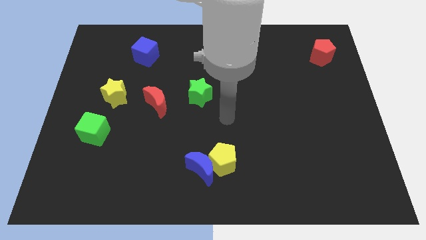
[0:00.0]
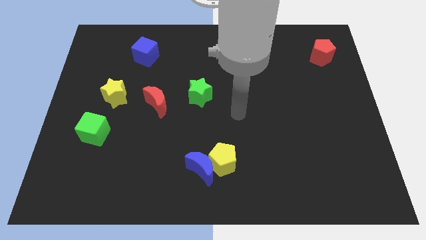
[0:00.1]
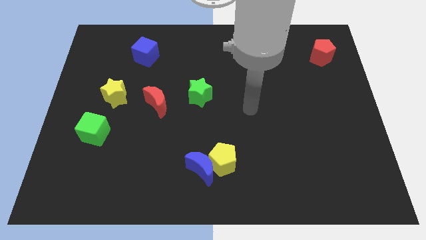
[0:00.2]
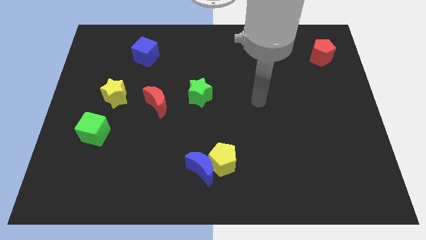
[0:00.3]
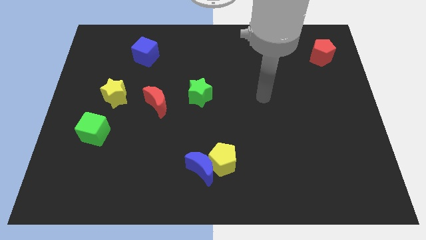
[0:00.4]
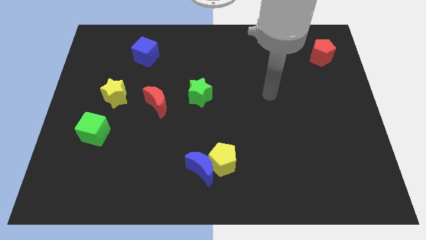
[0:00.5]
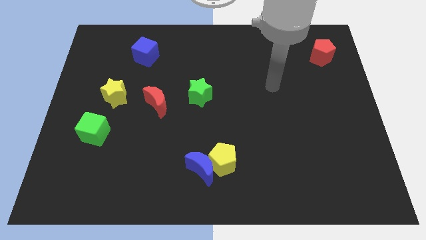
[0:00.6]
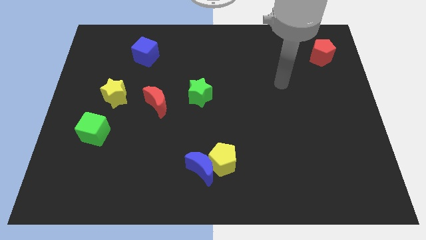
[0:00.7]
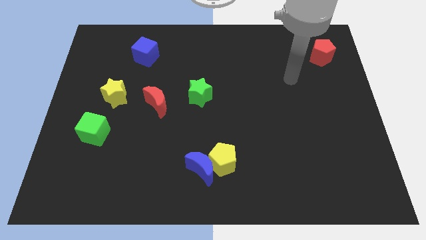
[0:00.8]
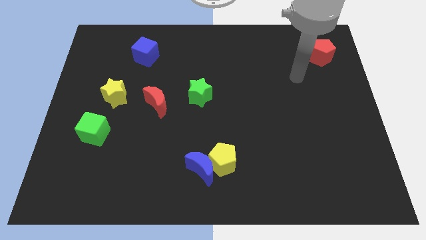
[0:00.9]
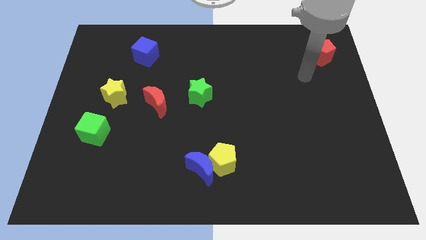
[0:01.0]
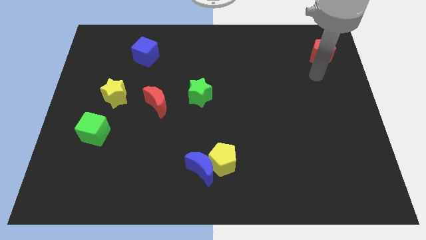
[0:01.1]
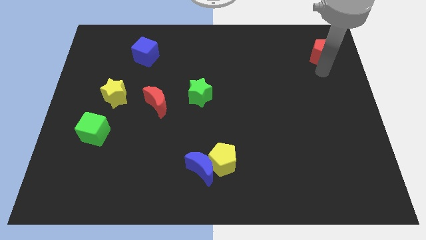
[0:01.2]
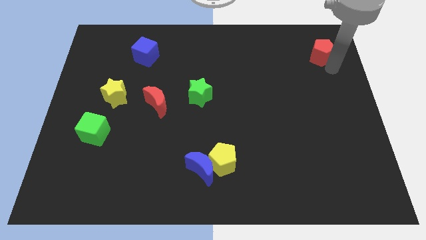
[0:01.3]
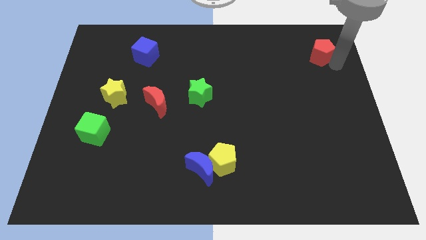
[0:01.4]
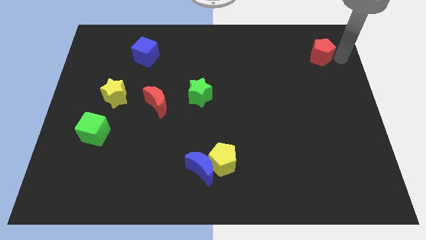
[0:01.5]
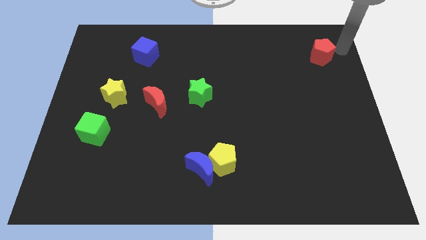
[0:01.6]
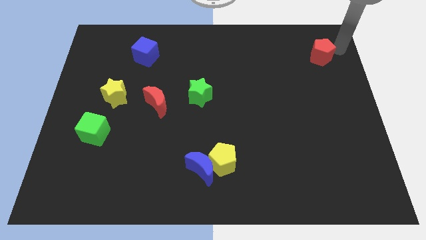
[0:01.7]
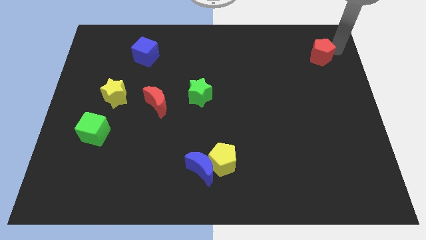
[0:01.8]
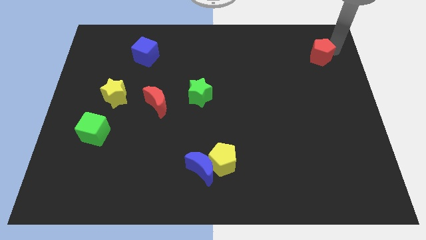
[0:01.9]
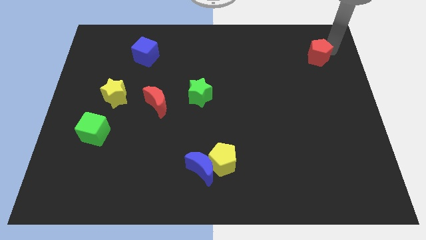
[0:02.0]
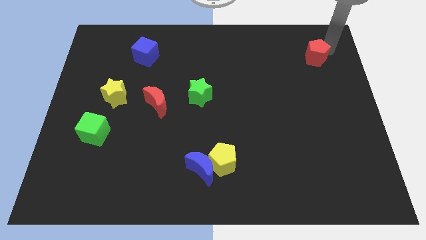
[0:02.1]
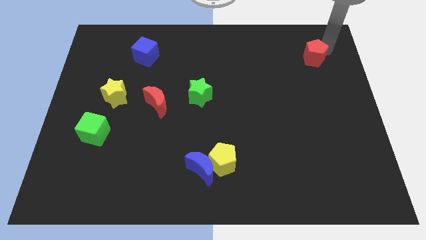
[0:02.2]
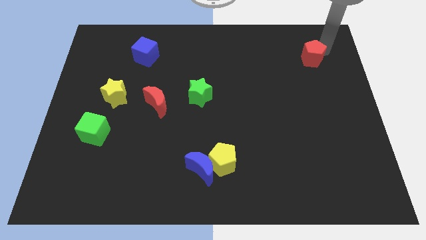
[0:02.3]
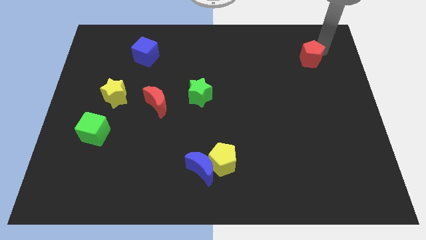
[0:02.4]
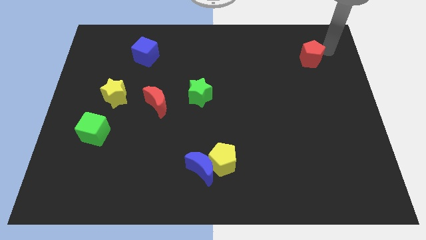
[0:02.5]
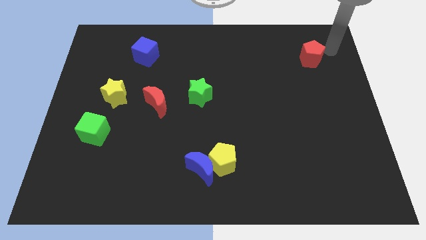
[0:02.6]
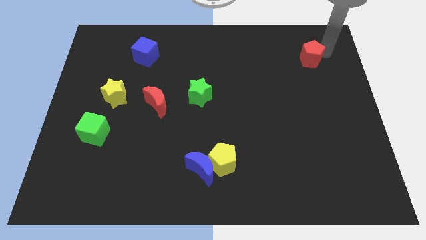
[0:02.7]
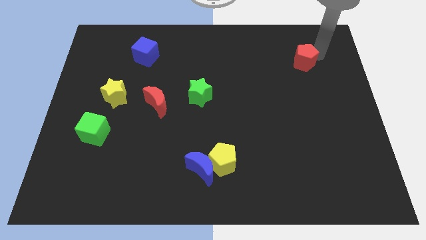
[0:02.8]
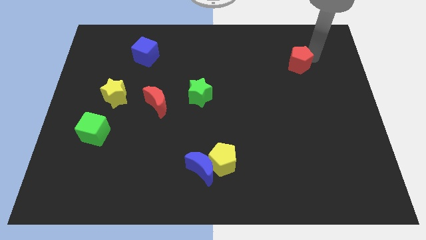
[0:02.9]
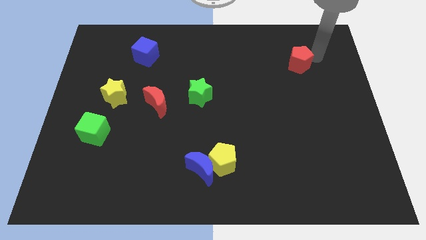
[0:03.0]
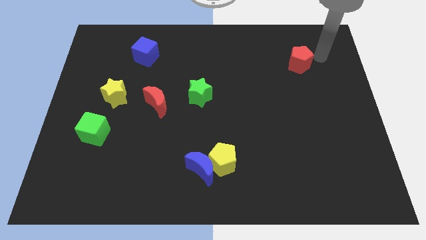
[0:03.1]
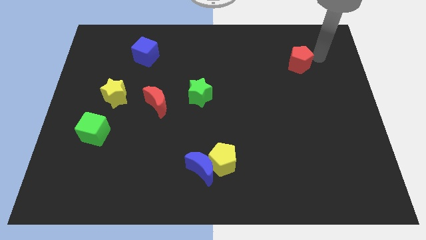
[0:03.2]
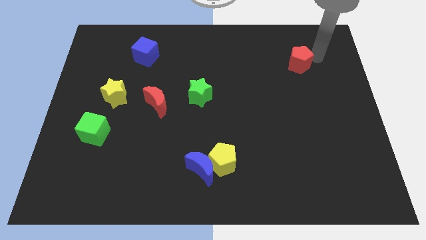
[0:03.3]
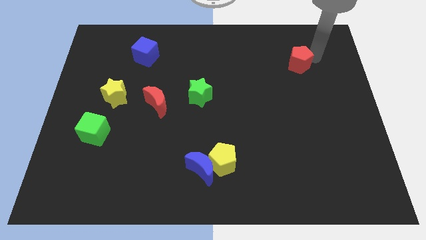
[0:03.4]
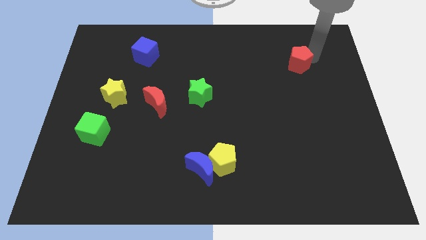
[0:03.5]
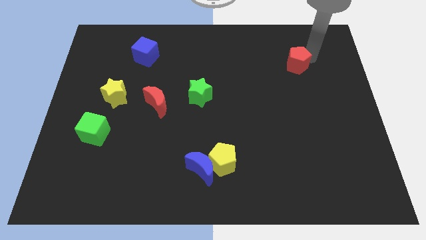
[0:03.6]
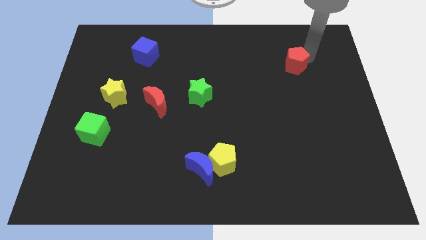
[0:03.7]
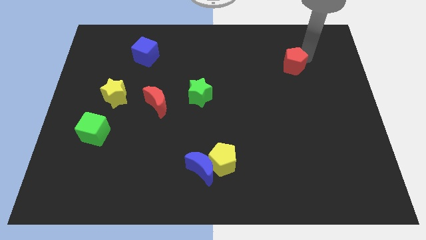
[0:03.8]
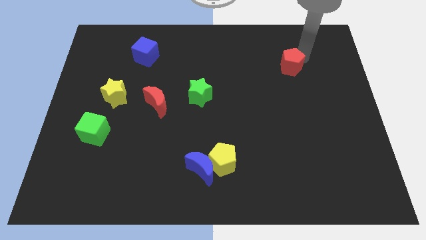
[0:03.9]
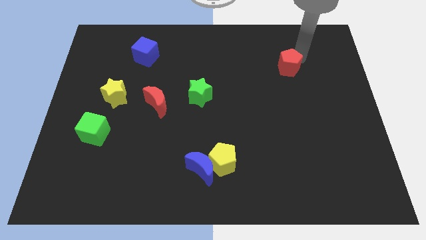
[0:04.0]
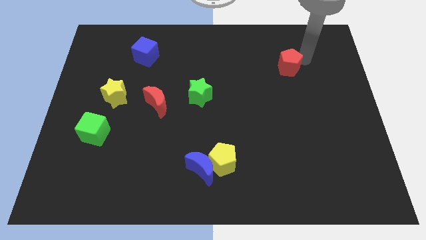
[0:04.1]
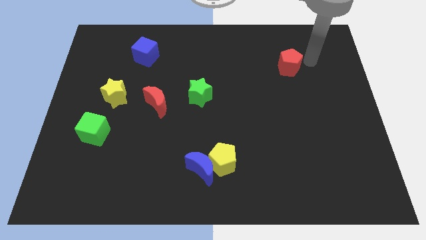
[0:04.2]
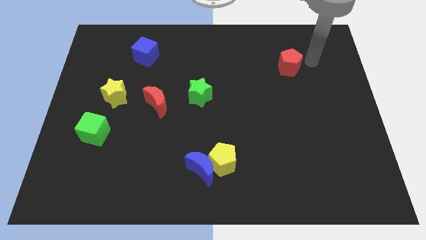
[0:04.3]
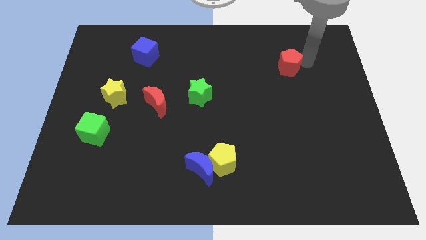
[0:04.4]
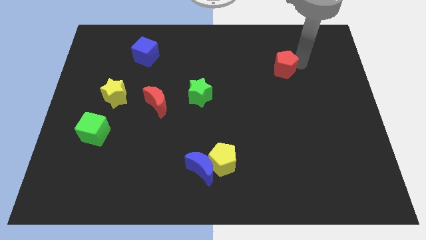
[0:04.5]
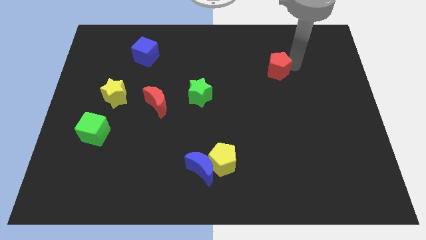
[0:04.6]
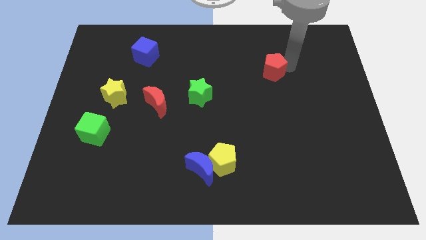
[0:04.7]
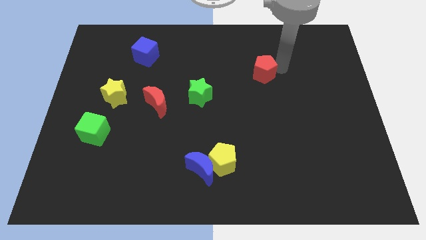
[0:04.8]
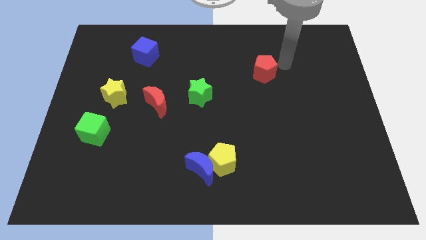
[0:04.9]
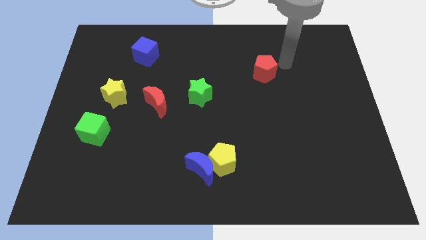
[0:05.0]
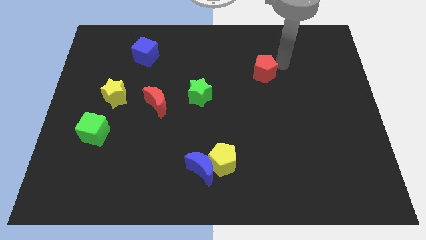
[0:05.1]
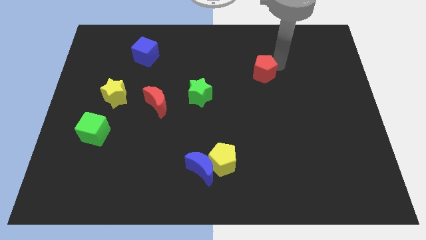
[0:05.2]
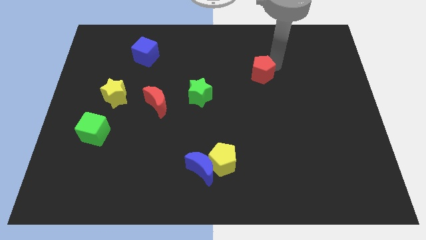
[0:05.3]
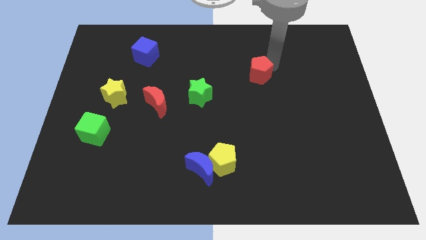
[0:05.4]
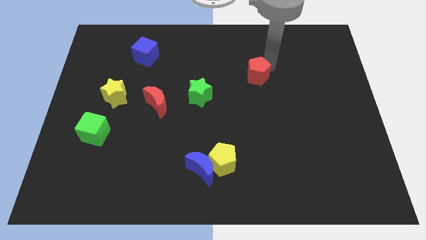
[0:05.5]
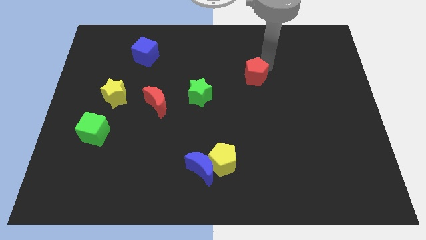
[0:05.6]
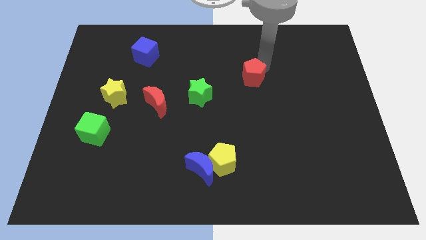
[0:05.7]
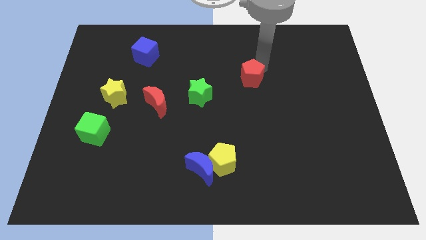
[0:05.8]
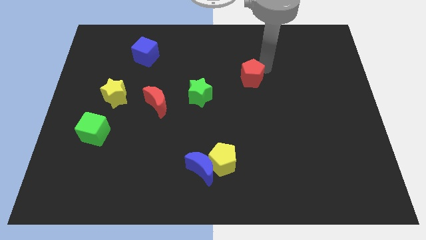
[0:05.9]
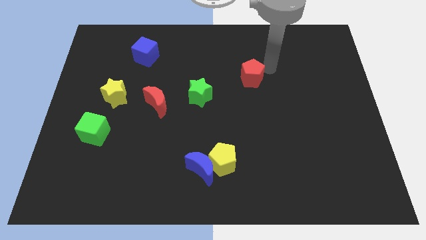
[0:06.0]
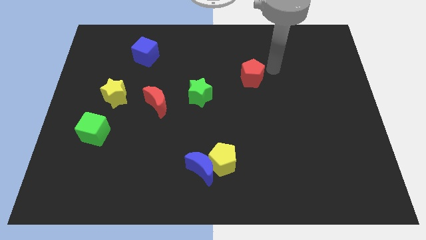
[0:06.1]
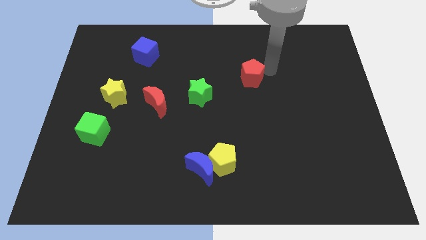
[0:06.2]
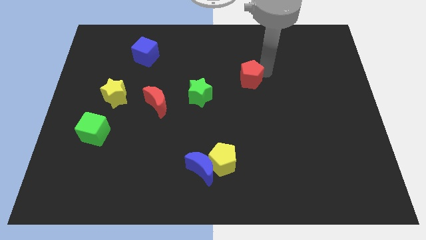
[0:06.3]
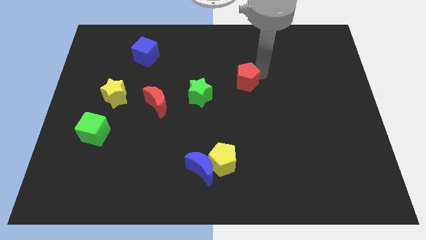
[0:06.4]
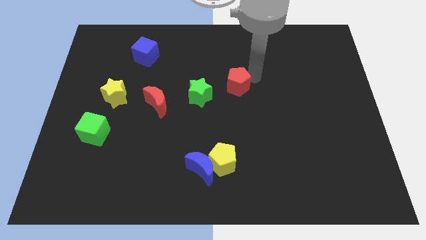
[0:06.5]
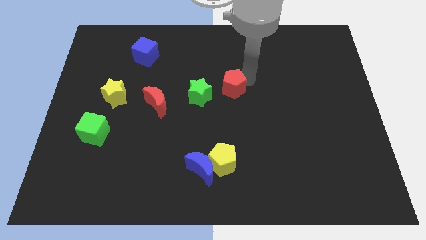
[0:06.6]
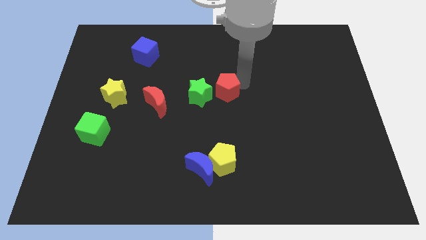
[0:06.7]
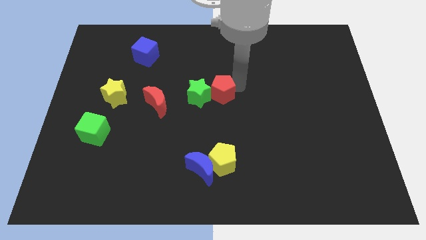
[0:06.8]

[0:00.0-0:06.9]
put the red pentagon next to the green star
